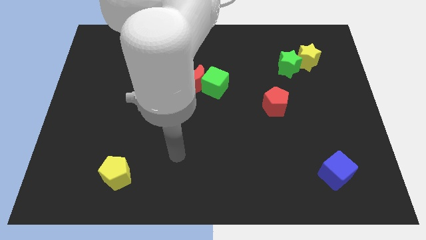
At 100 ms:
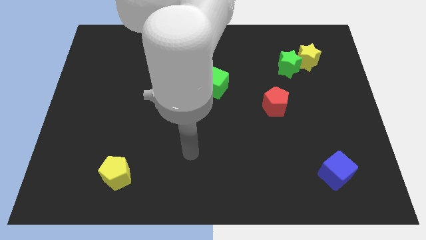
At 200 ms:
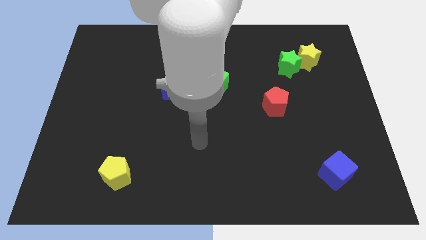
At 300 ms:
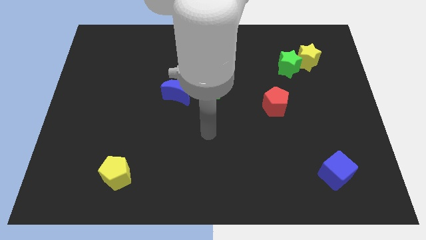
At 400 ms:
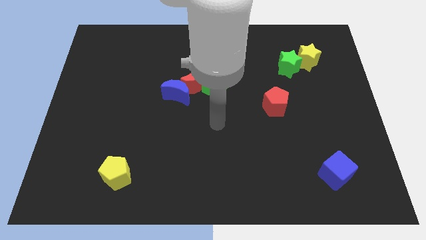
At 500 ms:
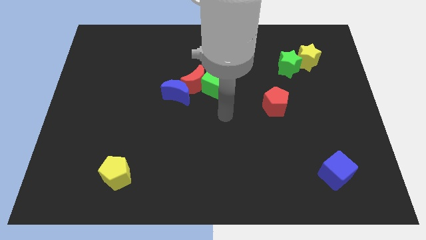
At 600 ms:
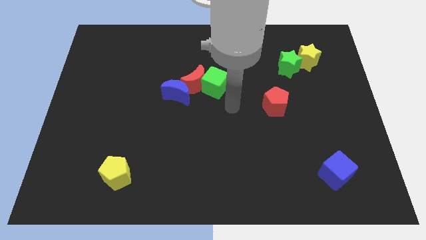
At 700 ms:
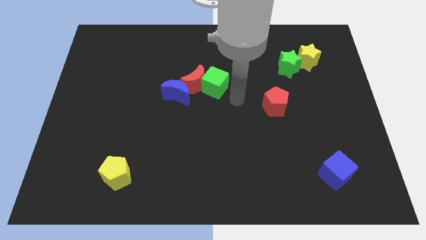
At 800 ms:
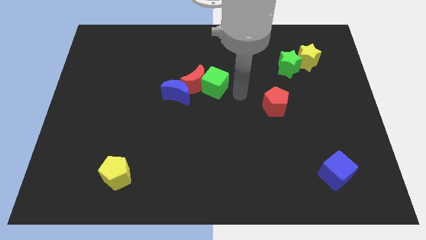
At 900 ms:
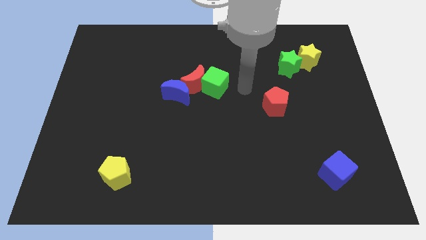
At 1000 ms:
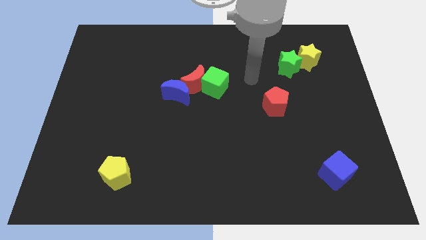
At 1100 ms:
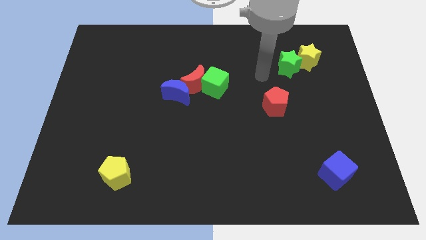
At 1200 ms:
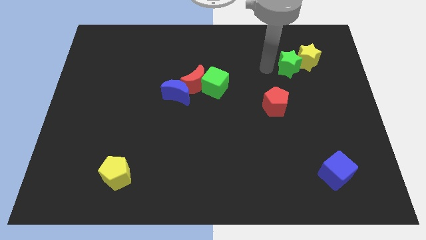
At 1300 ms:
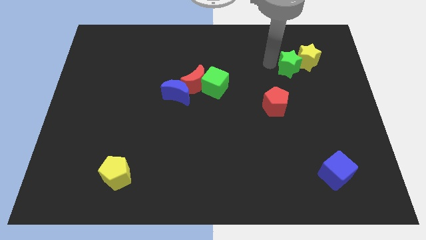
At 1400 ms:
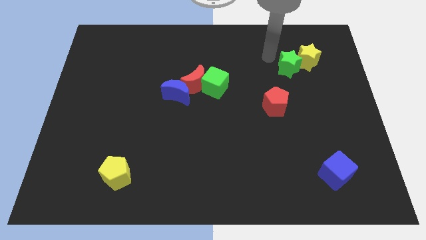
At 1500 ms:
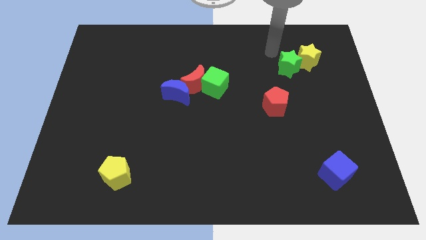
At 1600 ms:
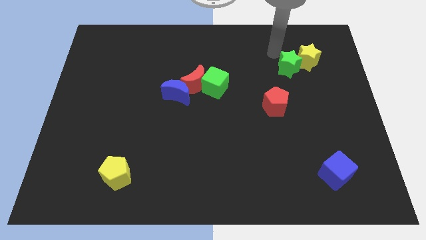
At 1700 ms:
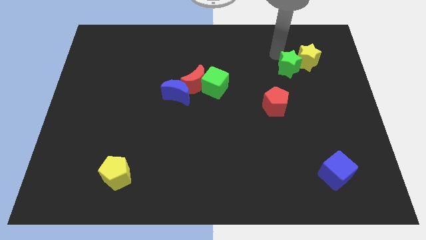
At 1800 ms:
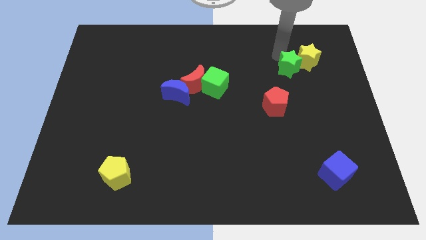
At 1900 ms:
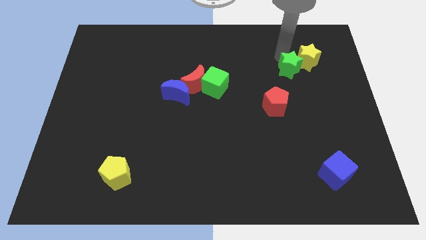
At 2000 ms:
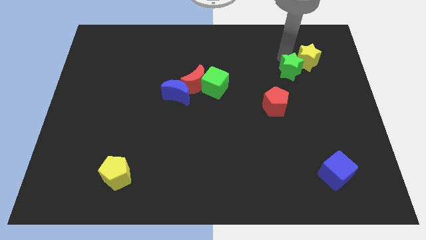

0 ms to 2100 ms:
move the green star below the yellow star

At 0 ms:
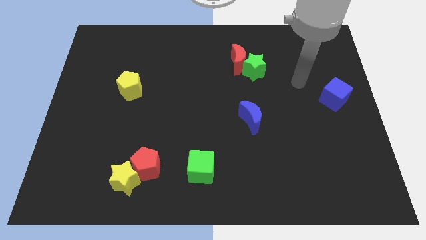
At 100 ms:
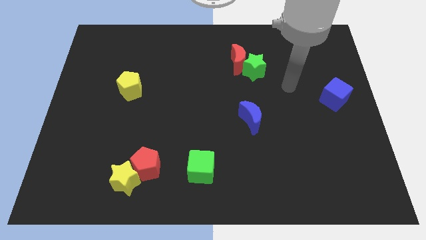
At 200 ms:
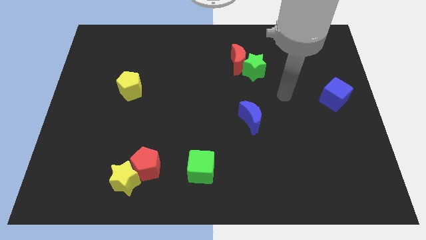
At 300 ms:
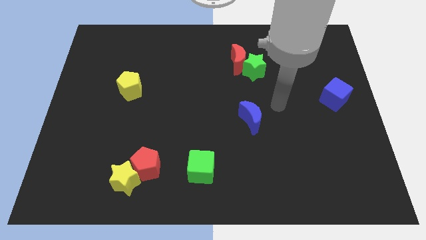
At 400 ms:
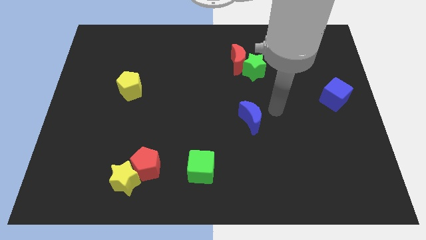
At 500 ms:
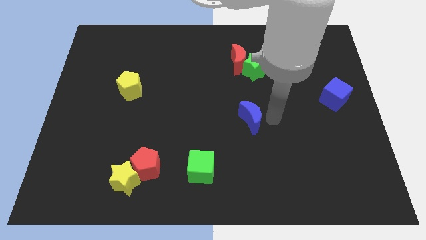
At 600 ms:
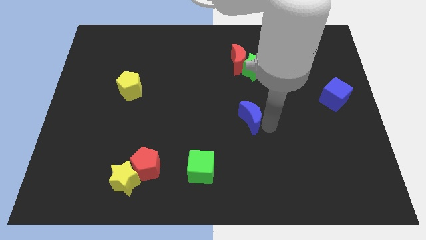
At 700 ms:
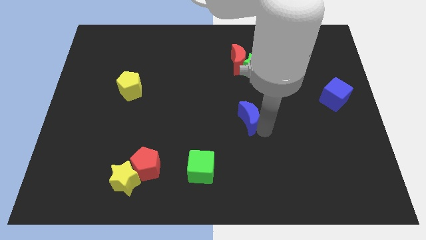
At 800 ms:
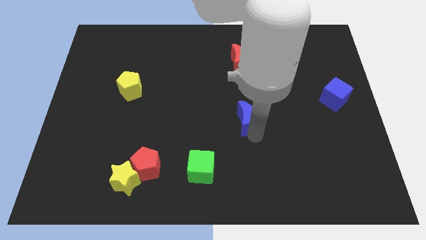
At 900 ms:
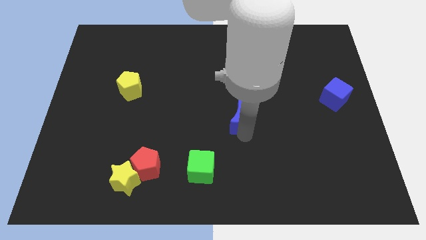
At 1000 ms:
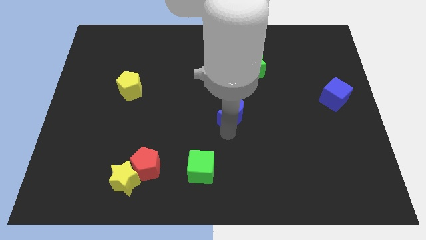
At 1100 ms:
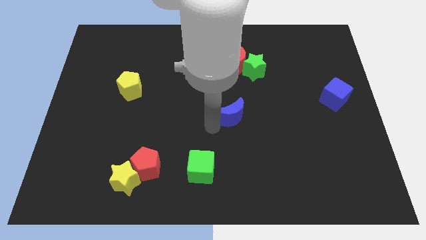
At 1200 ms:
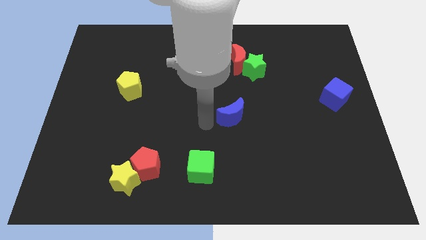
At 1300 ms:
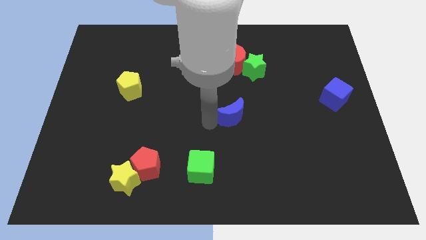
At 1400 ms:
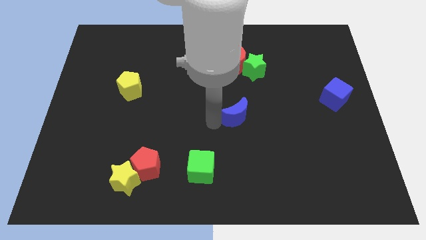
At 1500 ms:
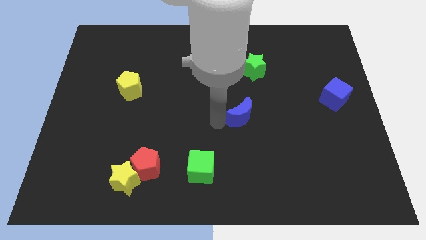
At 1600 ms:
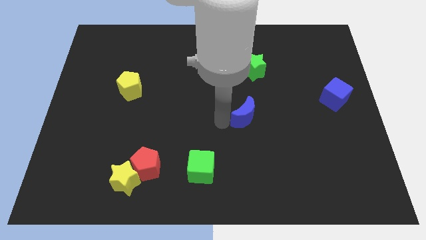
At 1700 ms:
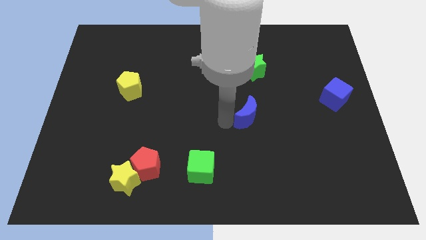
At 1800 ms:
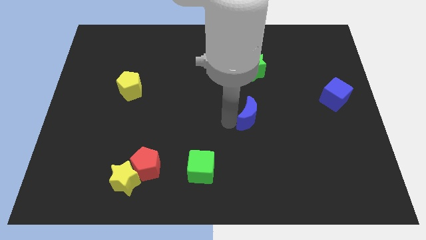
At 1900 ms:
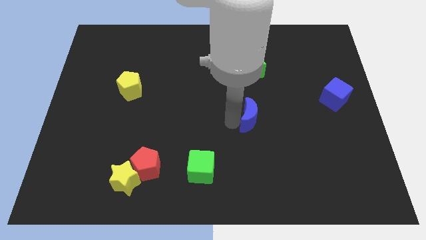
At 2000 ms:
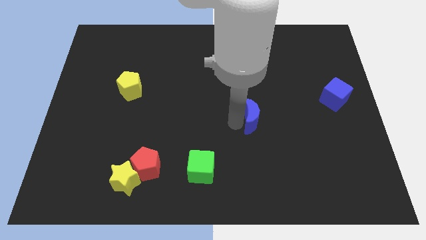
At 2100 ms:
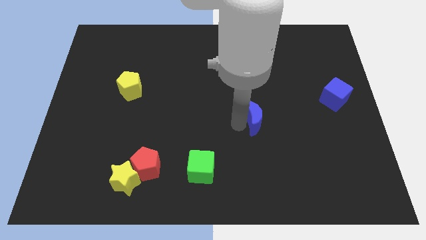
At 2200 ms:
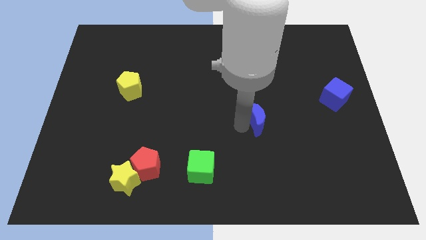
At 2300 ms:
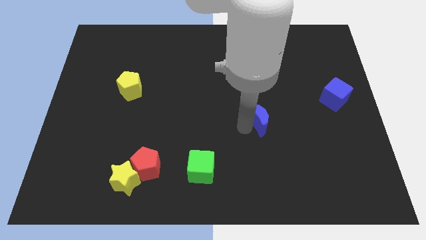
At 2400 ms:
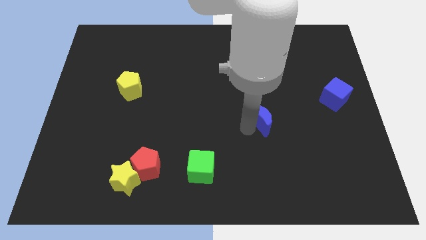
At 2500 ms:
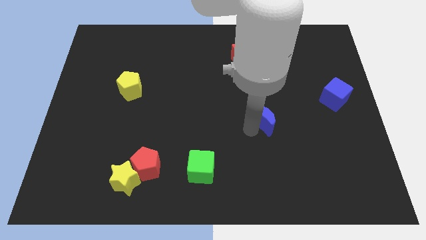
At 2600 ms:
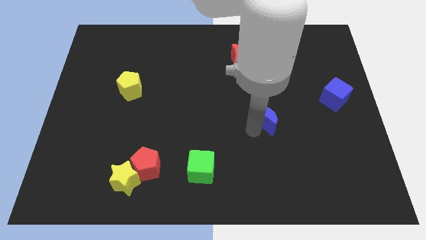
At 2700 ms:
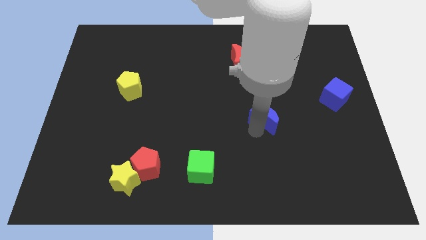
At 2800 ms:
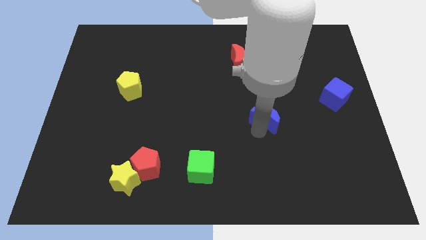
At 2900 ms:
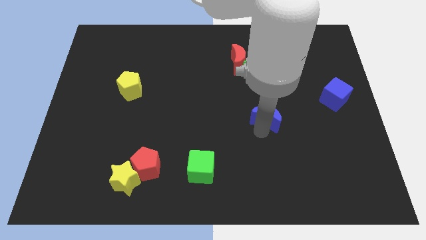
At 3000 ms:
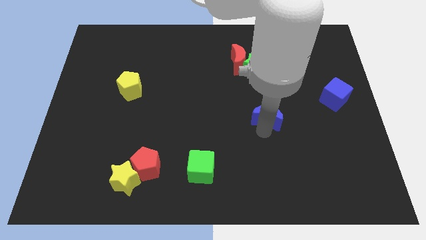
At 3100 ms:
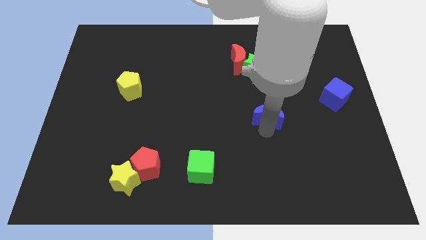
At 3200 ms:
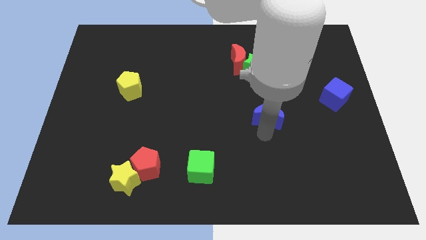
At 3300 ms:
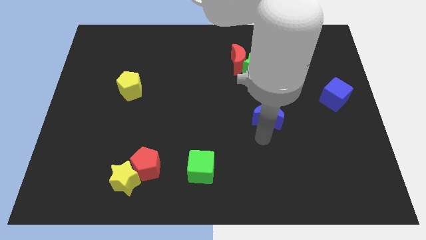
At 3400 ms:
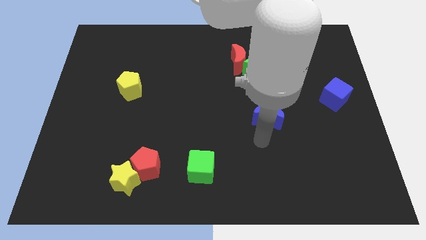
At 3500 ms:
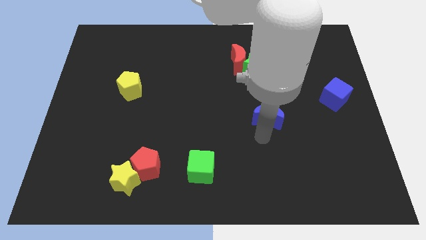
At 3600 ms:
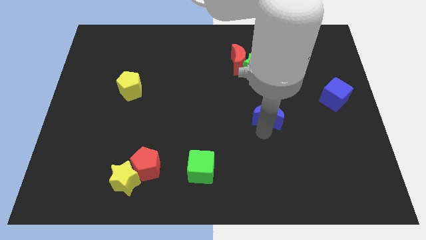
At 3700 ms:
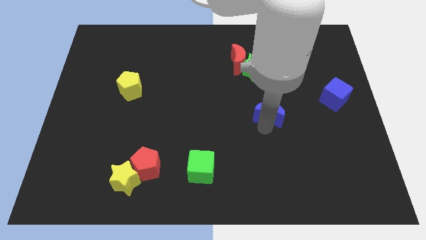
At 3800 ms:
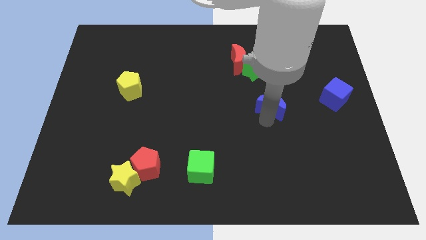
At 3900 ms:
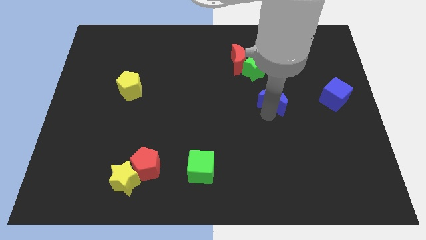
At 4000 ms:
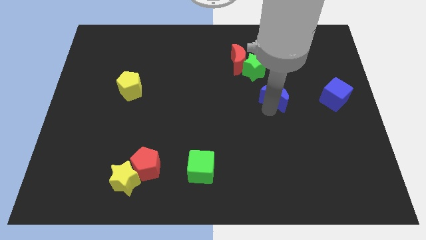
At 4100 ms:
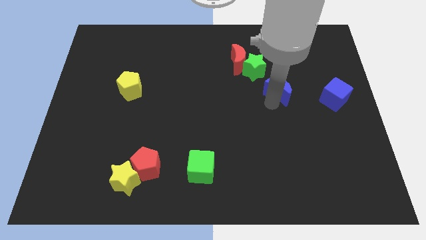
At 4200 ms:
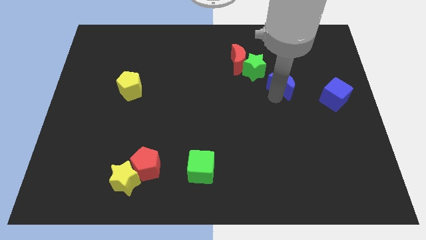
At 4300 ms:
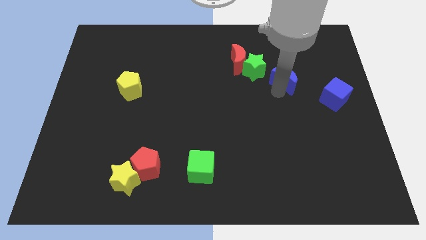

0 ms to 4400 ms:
move the blue moon to the right of the green star

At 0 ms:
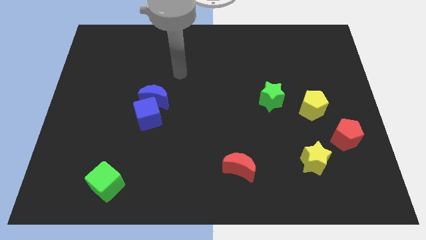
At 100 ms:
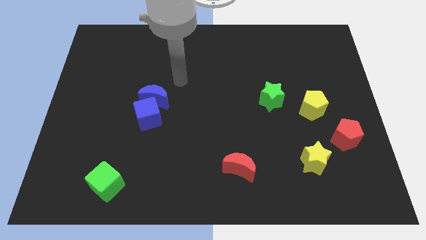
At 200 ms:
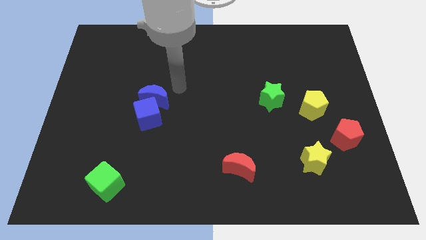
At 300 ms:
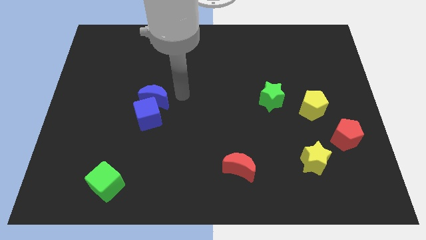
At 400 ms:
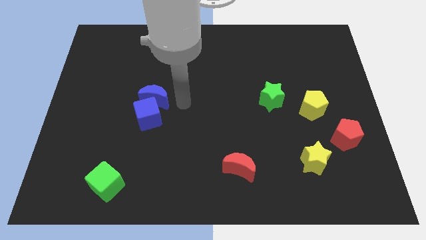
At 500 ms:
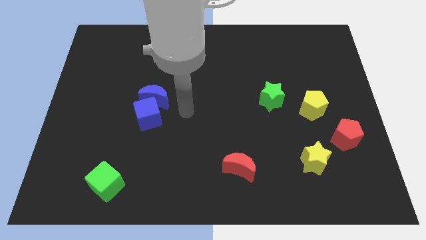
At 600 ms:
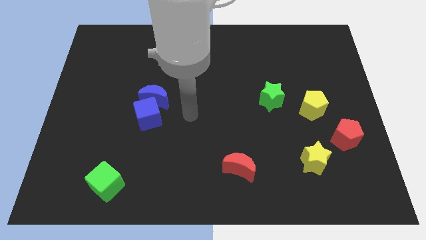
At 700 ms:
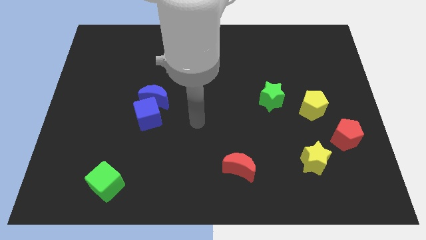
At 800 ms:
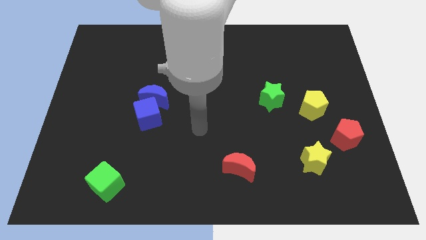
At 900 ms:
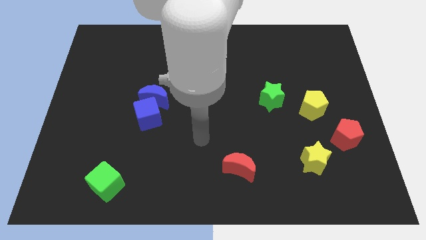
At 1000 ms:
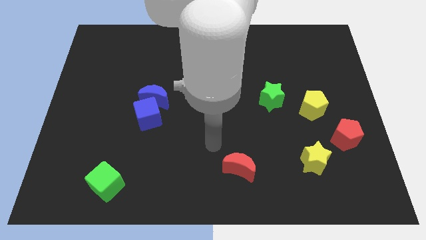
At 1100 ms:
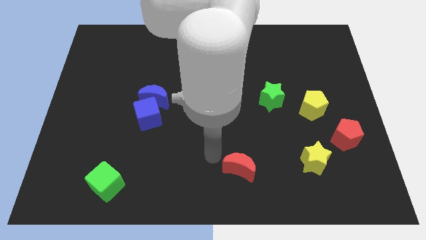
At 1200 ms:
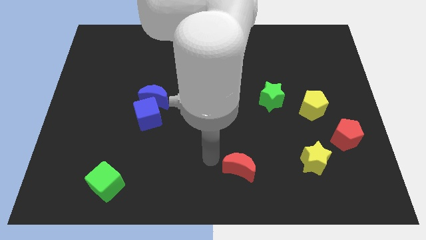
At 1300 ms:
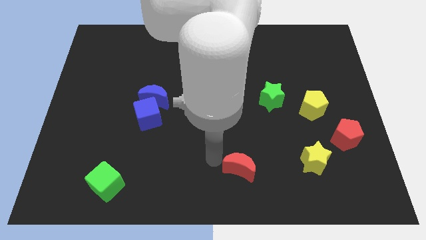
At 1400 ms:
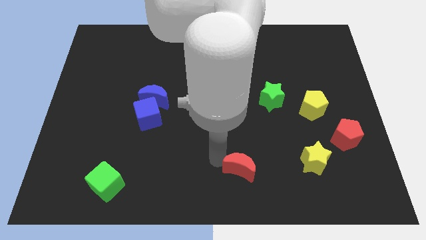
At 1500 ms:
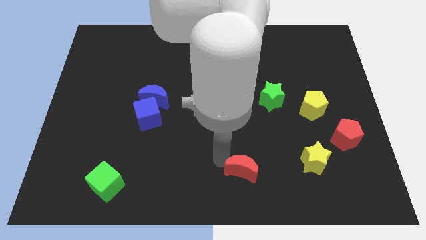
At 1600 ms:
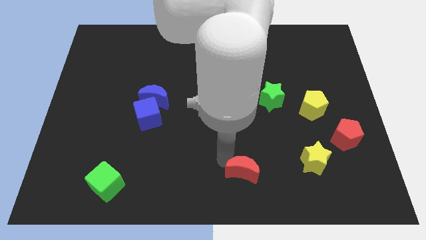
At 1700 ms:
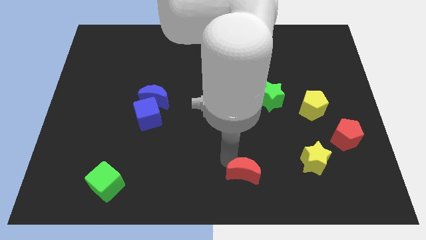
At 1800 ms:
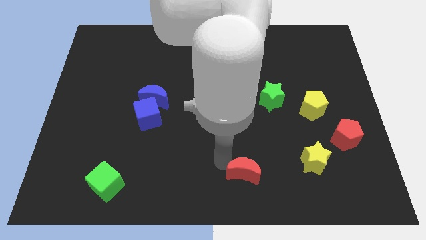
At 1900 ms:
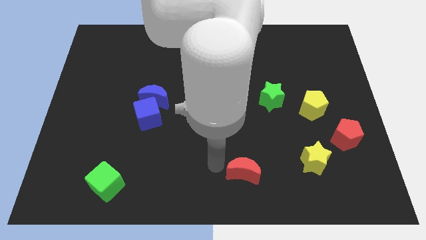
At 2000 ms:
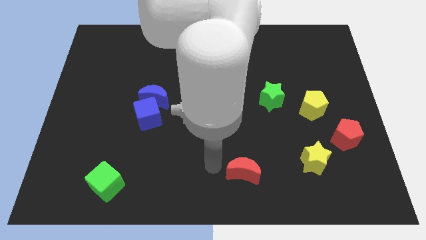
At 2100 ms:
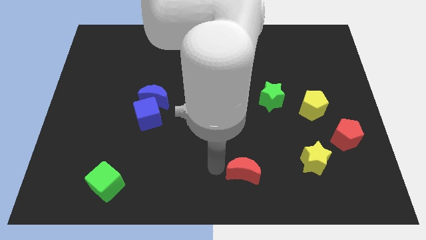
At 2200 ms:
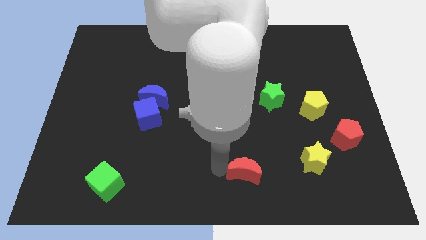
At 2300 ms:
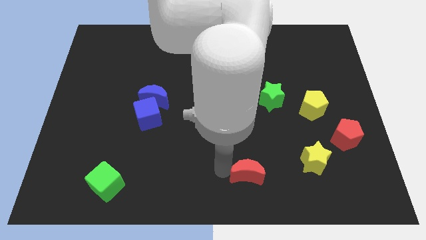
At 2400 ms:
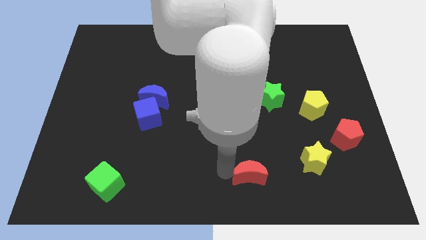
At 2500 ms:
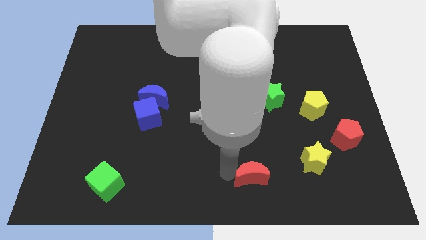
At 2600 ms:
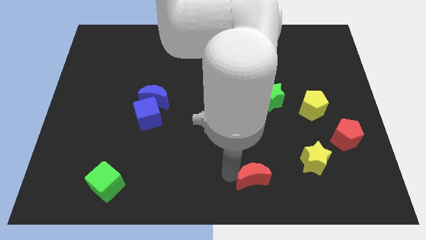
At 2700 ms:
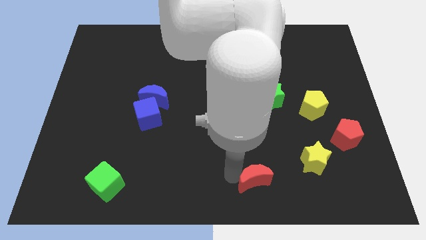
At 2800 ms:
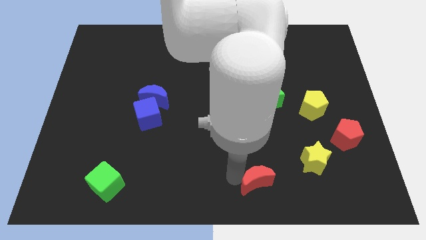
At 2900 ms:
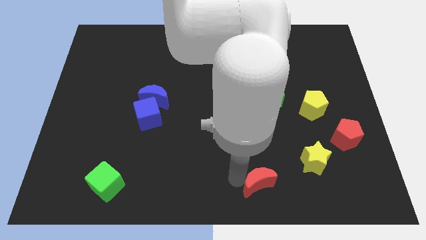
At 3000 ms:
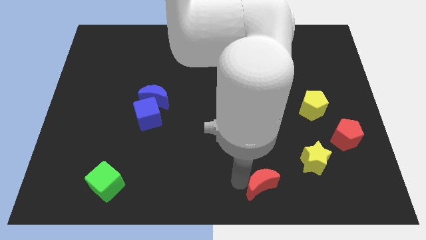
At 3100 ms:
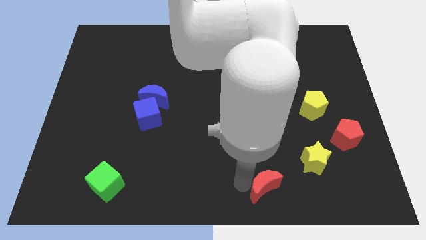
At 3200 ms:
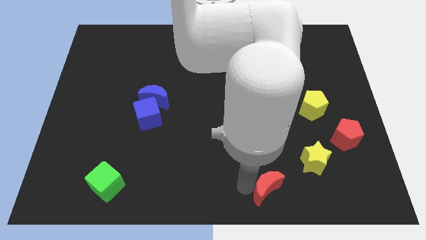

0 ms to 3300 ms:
push the red moon to the bottom left of the yellow star
